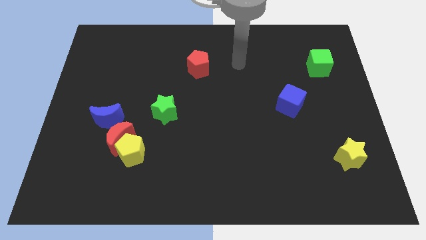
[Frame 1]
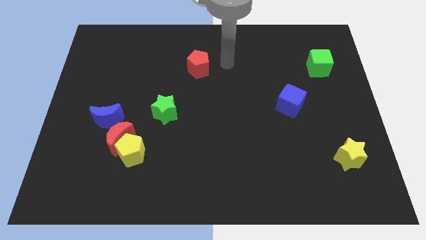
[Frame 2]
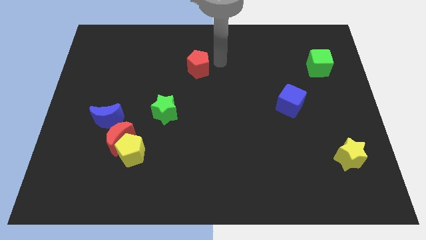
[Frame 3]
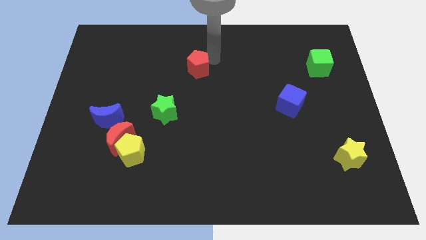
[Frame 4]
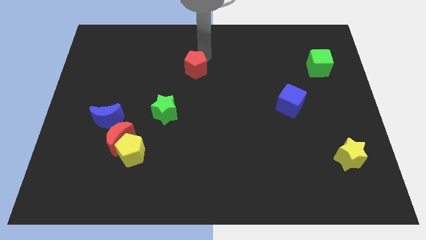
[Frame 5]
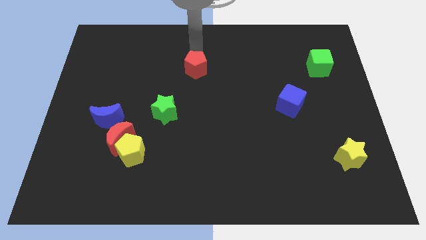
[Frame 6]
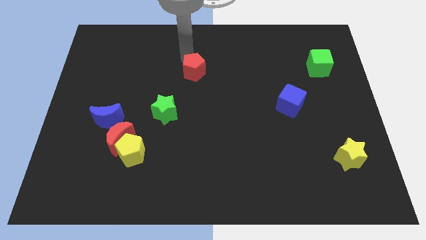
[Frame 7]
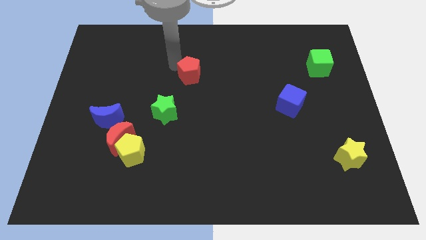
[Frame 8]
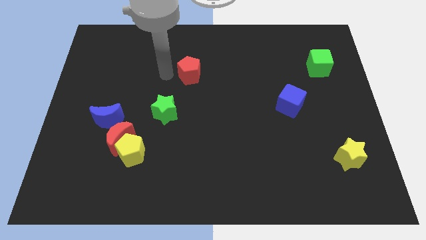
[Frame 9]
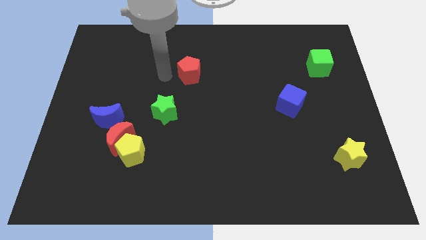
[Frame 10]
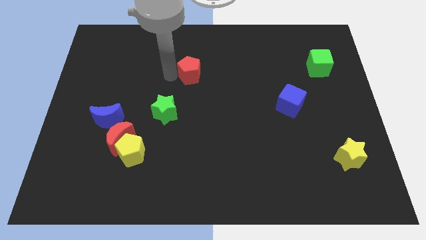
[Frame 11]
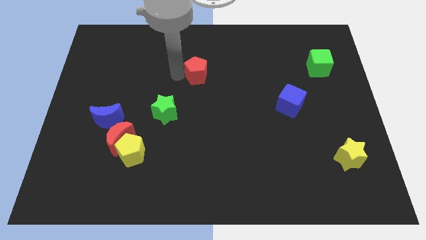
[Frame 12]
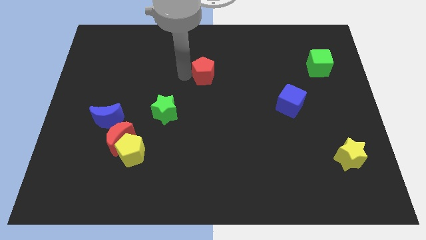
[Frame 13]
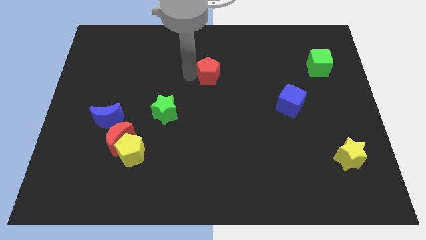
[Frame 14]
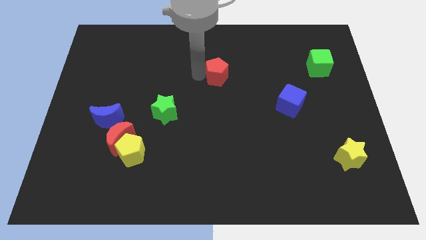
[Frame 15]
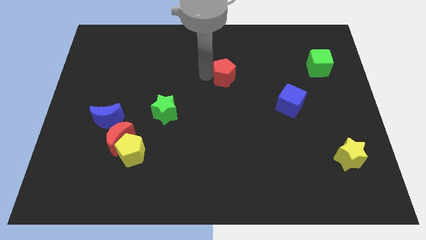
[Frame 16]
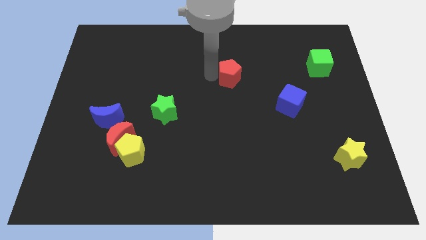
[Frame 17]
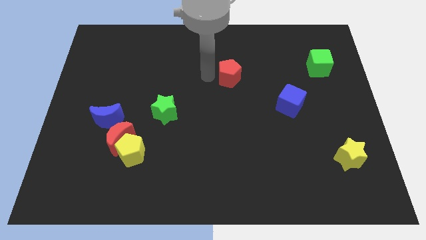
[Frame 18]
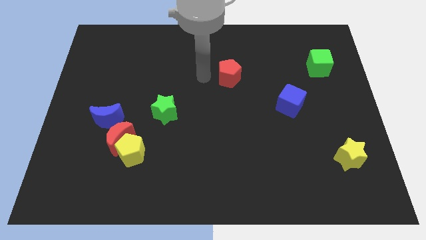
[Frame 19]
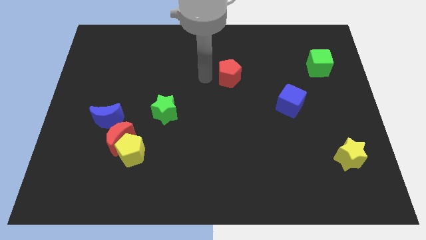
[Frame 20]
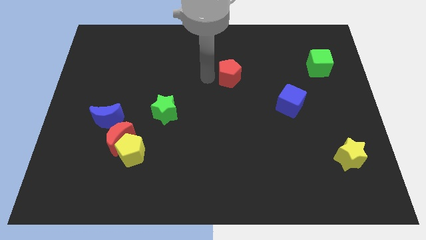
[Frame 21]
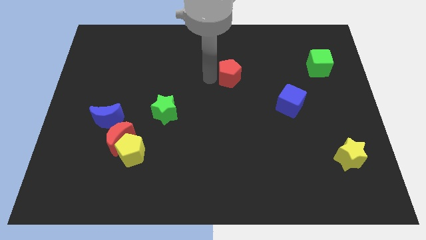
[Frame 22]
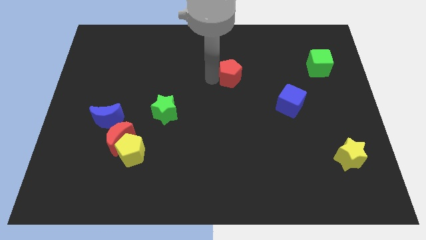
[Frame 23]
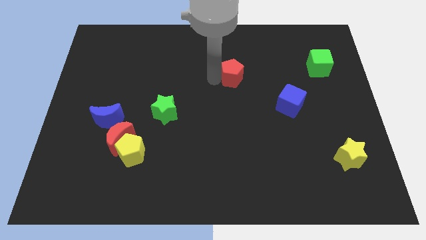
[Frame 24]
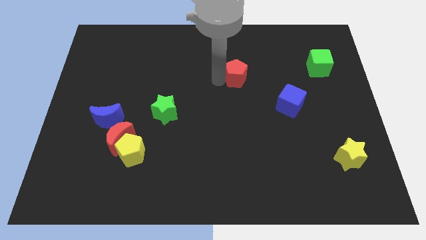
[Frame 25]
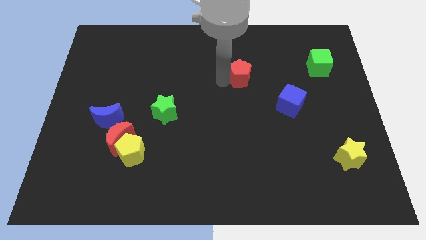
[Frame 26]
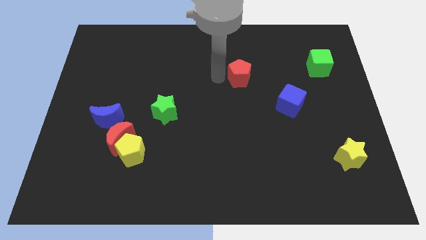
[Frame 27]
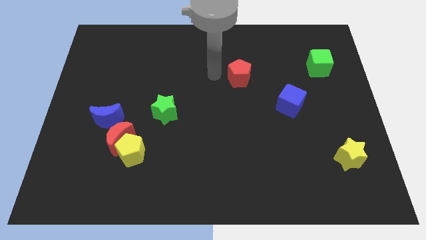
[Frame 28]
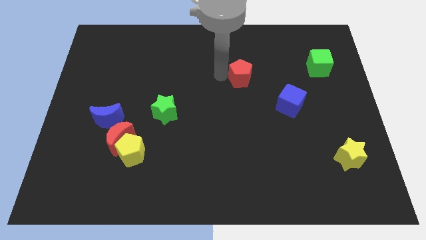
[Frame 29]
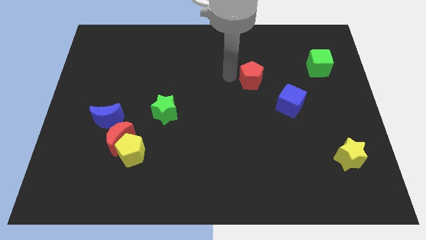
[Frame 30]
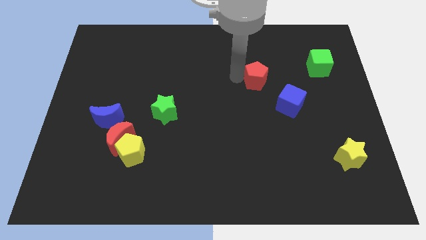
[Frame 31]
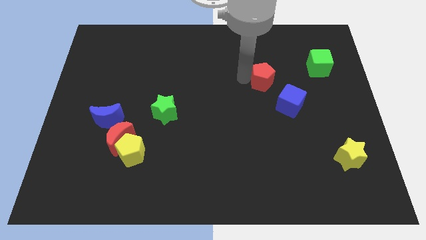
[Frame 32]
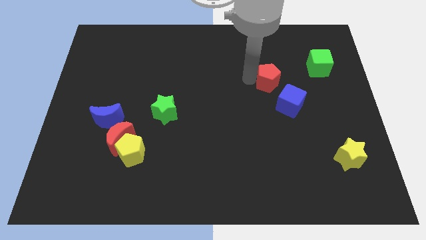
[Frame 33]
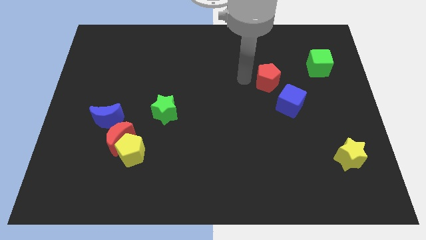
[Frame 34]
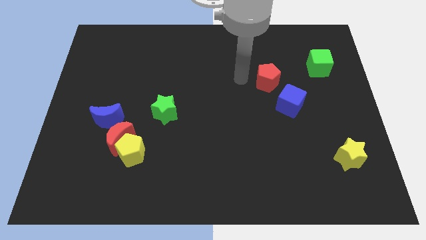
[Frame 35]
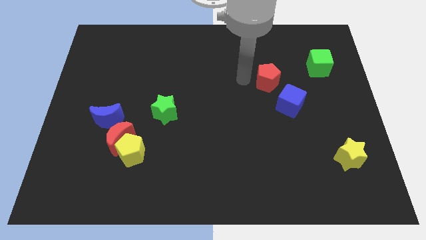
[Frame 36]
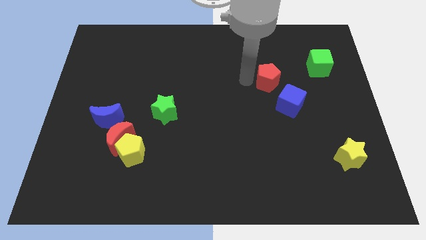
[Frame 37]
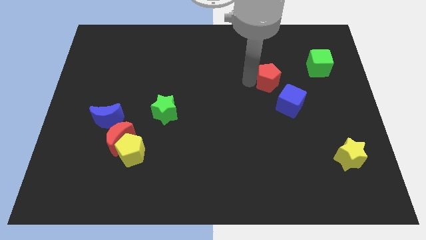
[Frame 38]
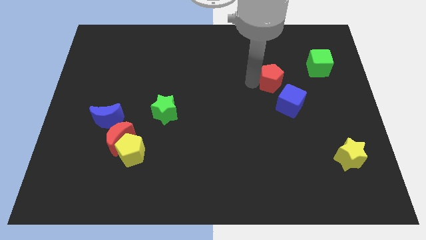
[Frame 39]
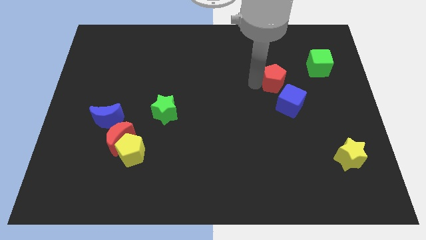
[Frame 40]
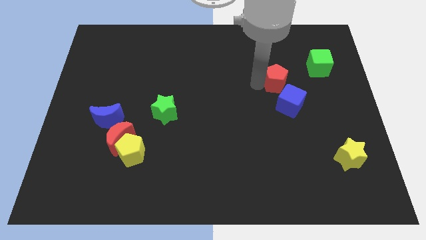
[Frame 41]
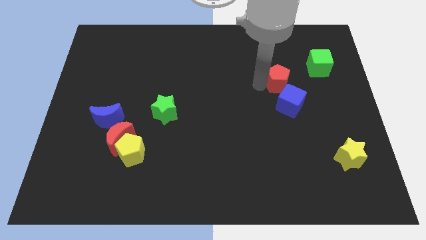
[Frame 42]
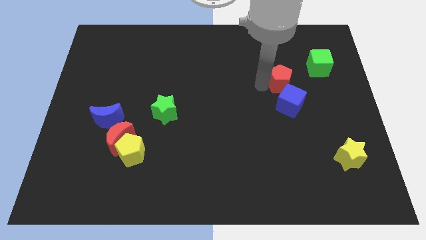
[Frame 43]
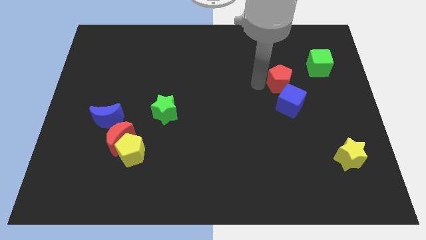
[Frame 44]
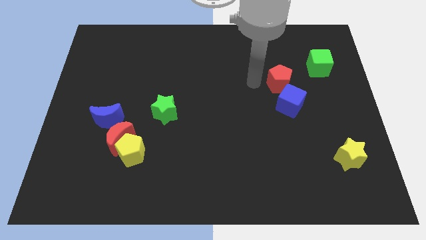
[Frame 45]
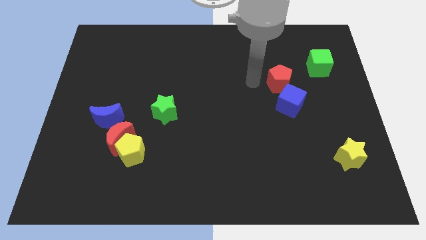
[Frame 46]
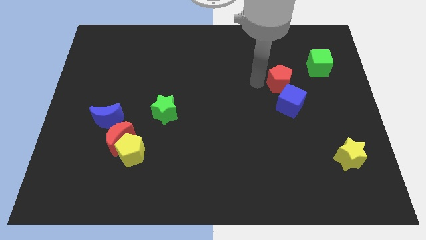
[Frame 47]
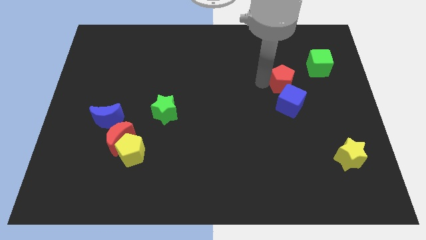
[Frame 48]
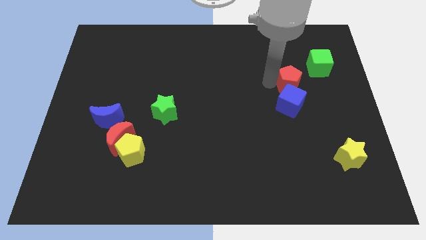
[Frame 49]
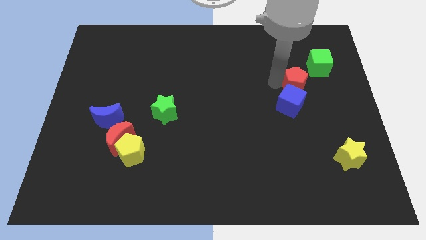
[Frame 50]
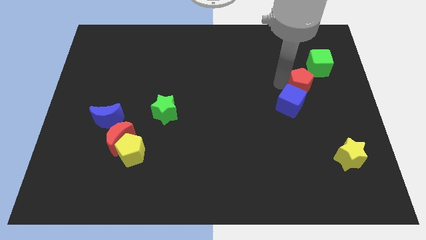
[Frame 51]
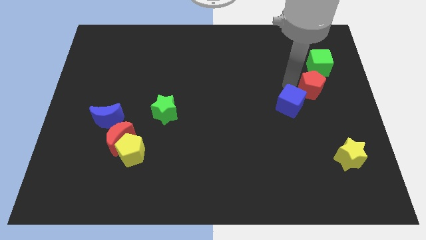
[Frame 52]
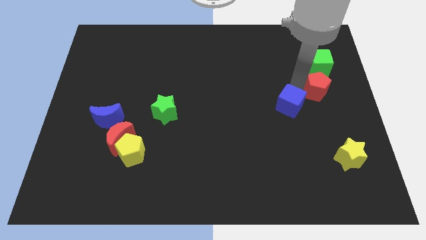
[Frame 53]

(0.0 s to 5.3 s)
push the red pentagon to the center right

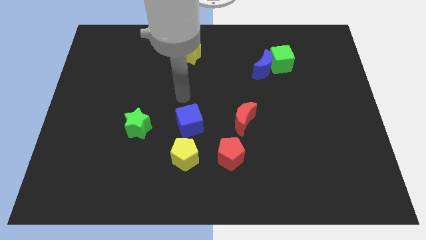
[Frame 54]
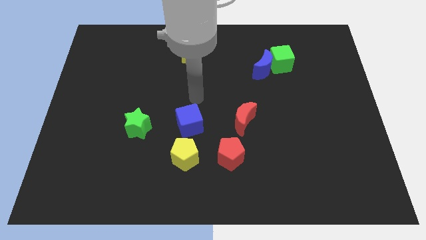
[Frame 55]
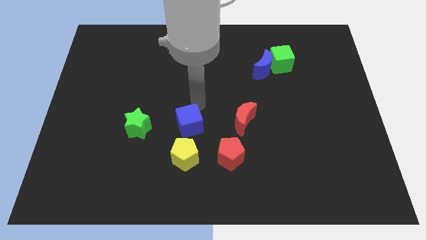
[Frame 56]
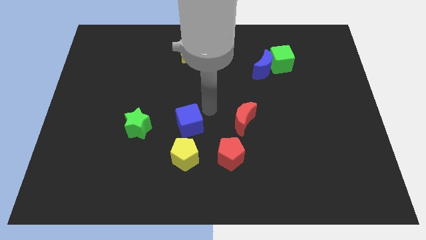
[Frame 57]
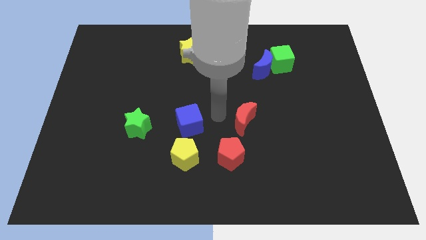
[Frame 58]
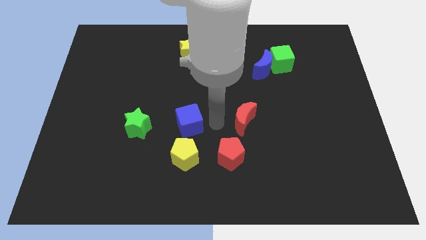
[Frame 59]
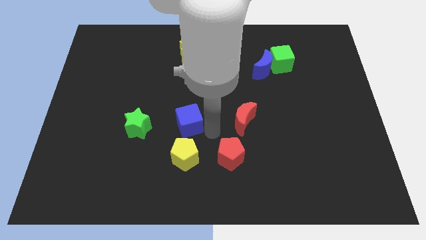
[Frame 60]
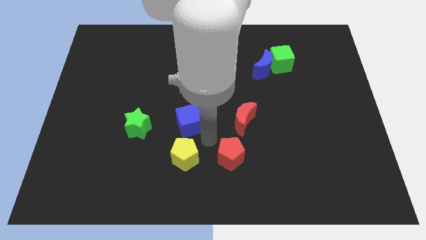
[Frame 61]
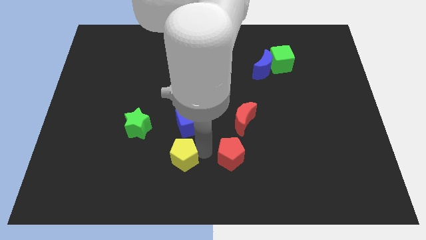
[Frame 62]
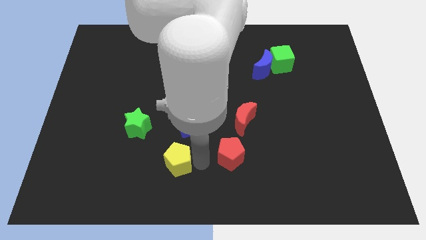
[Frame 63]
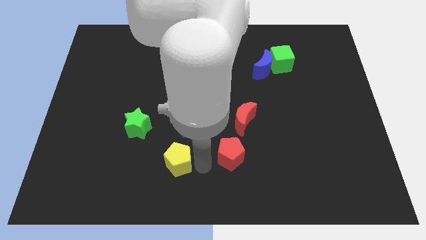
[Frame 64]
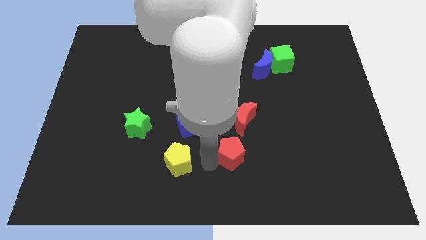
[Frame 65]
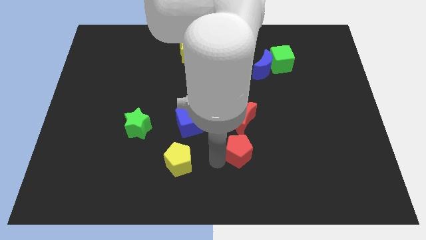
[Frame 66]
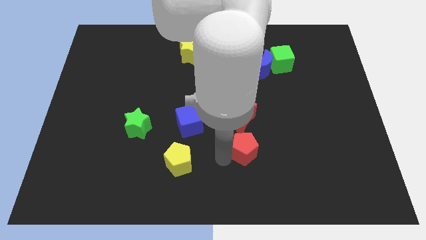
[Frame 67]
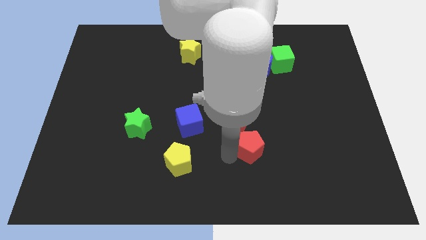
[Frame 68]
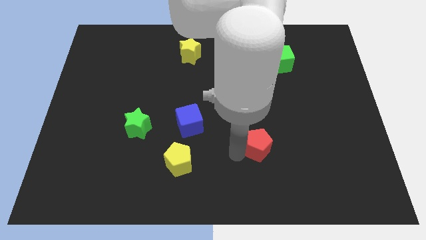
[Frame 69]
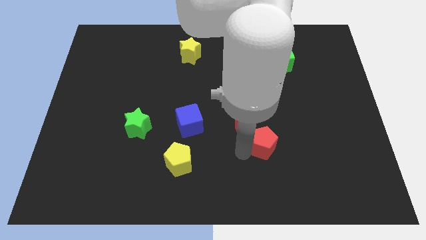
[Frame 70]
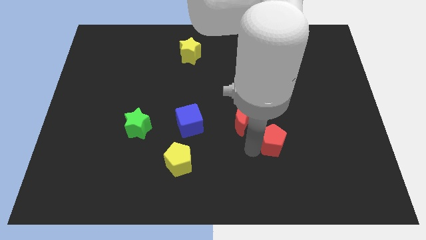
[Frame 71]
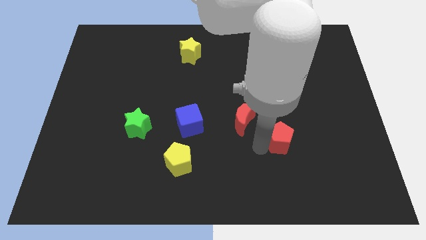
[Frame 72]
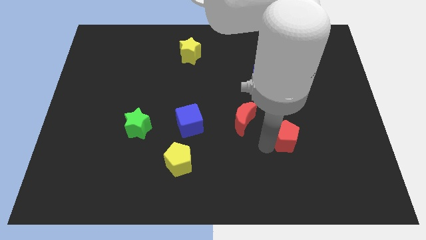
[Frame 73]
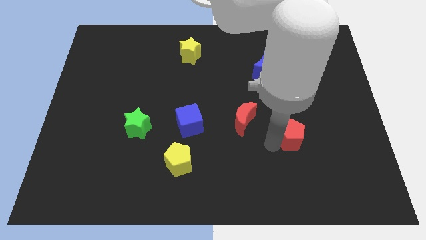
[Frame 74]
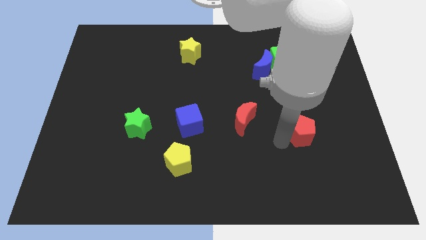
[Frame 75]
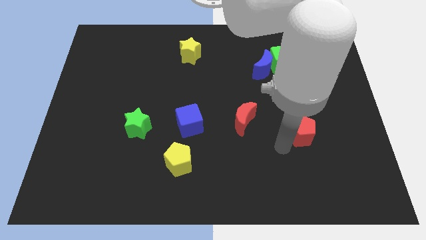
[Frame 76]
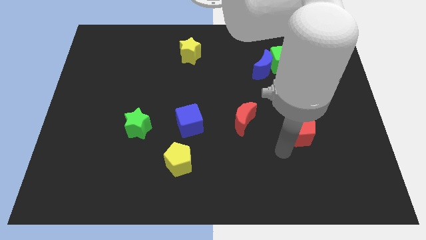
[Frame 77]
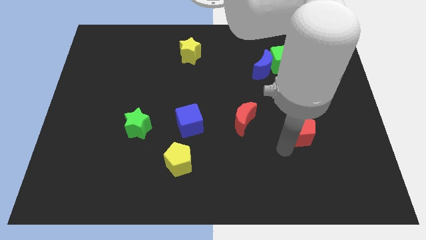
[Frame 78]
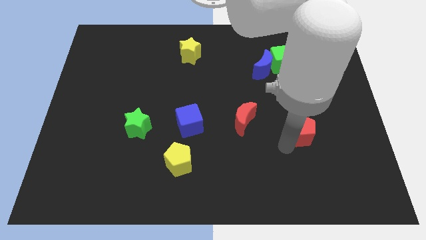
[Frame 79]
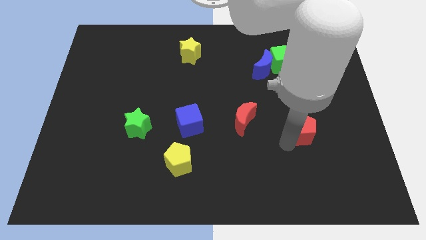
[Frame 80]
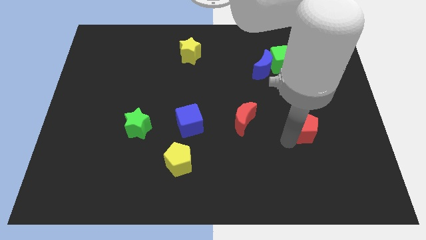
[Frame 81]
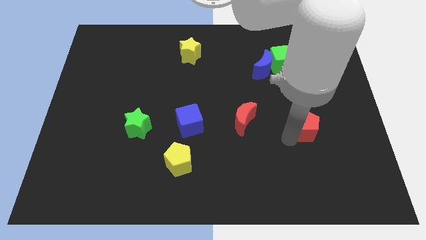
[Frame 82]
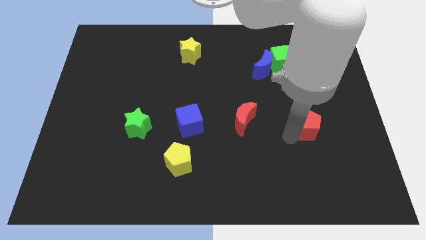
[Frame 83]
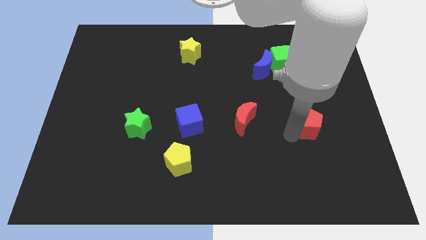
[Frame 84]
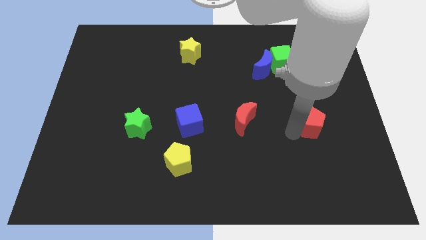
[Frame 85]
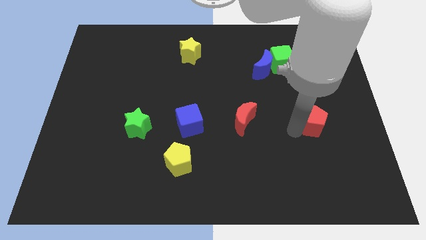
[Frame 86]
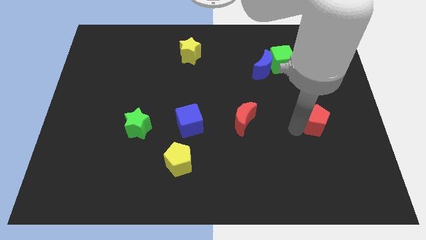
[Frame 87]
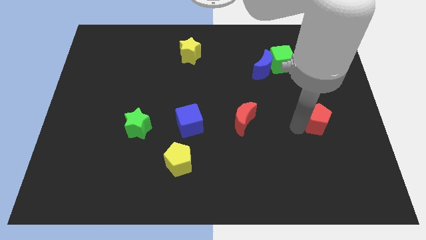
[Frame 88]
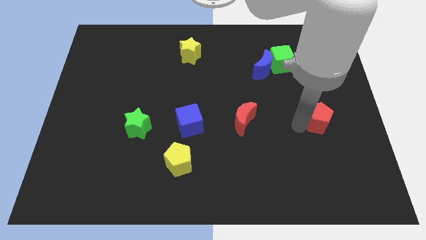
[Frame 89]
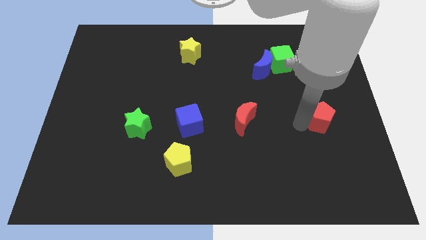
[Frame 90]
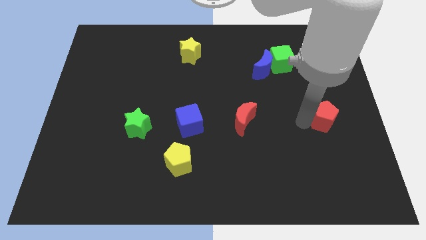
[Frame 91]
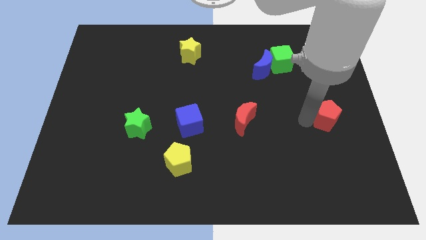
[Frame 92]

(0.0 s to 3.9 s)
put the red pentagon to the center right
